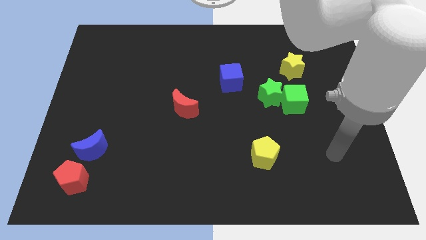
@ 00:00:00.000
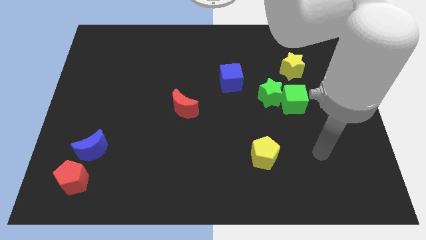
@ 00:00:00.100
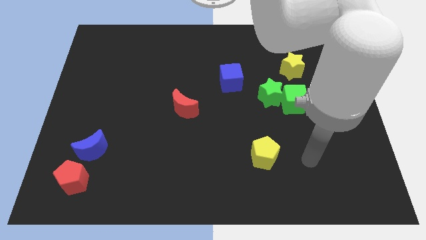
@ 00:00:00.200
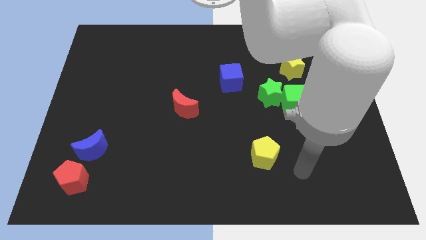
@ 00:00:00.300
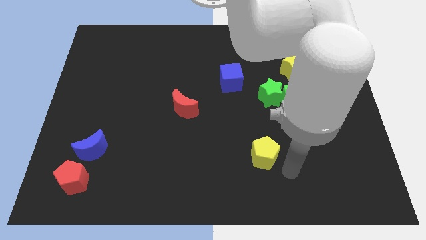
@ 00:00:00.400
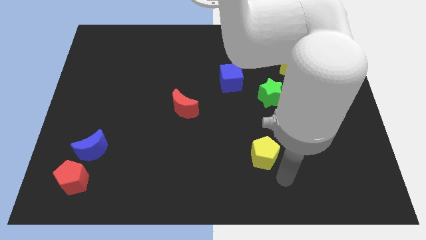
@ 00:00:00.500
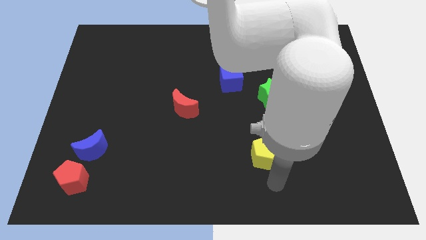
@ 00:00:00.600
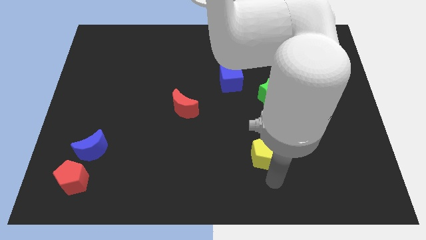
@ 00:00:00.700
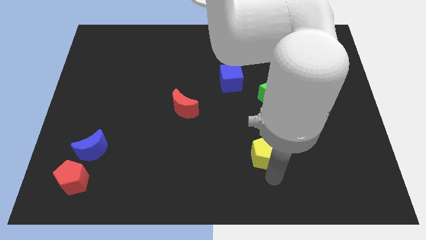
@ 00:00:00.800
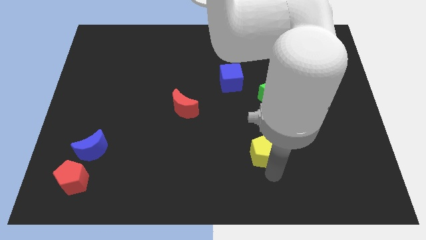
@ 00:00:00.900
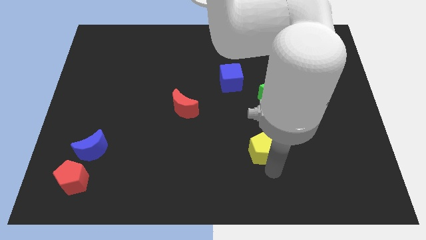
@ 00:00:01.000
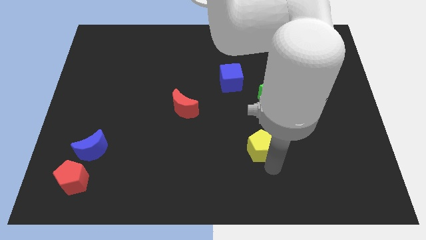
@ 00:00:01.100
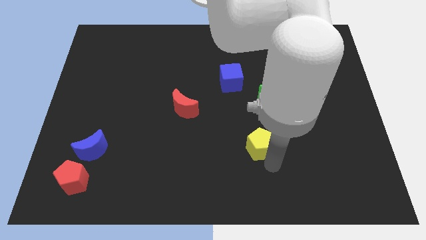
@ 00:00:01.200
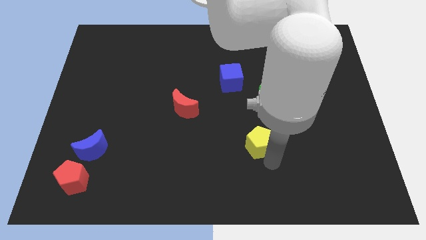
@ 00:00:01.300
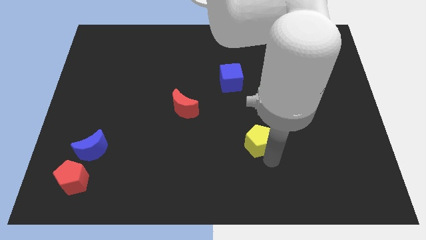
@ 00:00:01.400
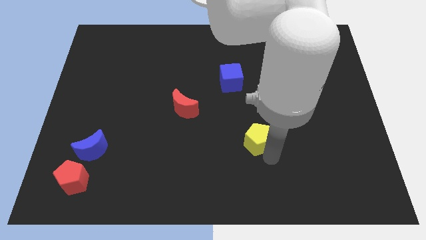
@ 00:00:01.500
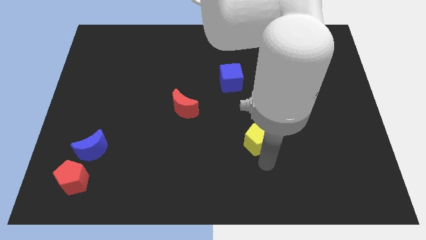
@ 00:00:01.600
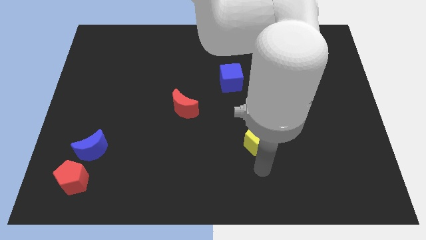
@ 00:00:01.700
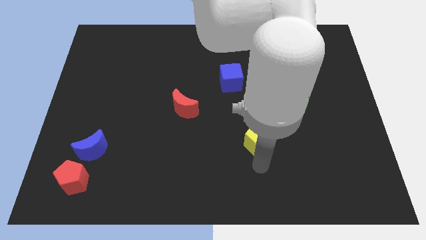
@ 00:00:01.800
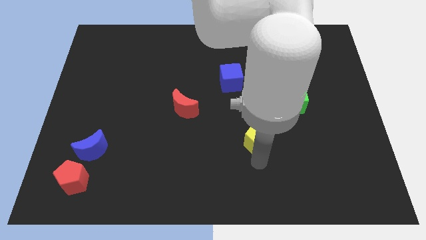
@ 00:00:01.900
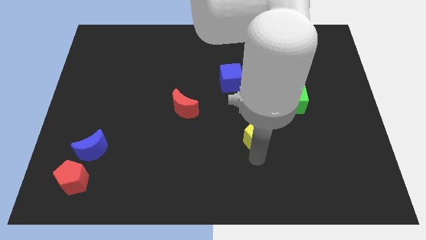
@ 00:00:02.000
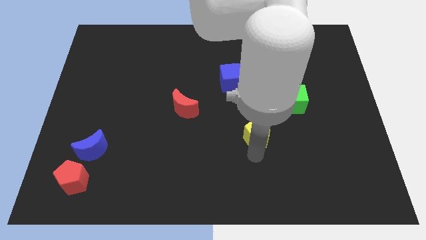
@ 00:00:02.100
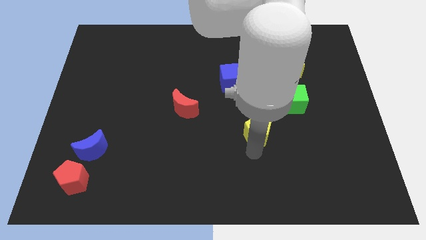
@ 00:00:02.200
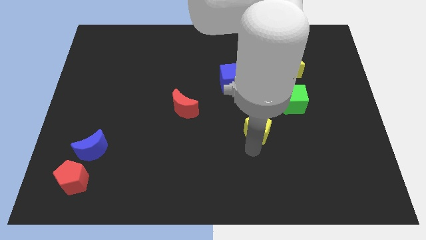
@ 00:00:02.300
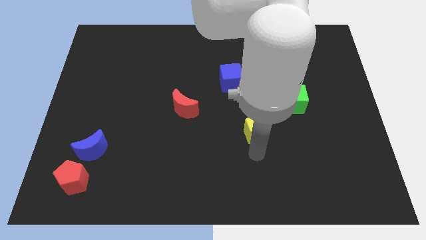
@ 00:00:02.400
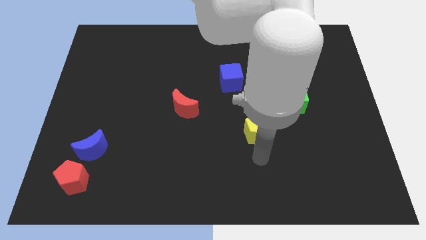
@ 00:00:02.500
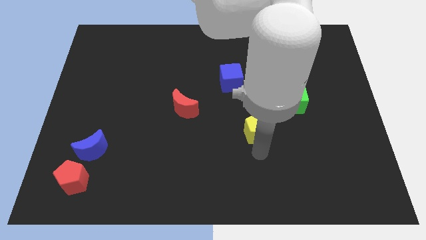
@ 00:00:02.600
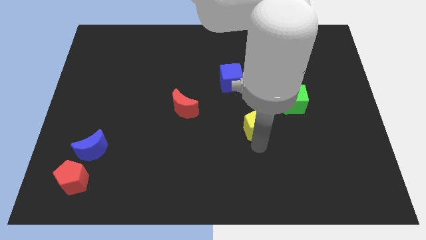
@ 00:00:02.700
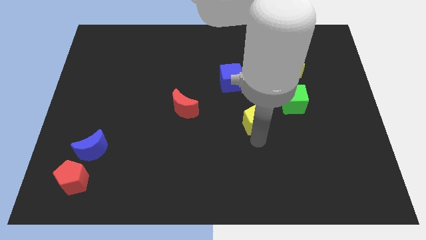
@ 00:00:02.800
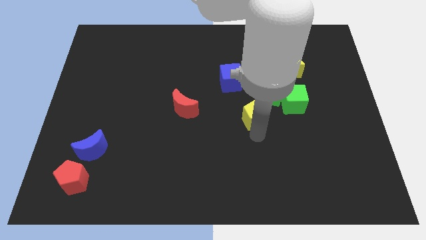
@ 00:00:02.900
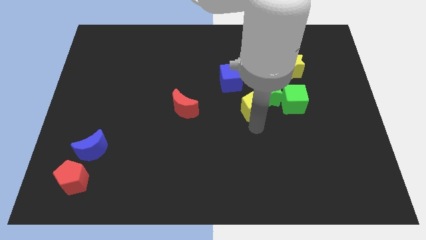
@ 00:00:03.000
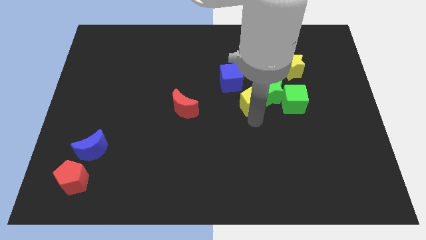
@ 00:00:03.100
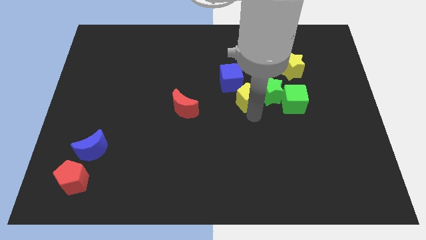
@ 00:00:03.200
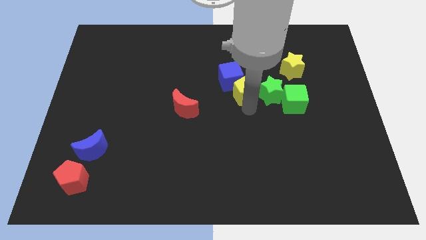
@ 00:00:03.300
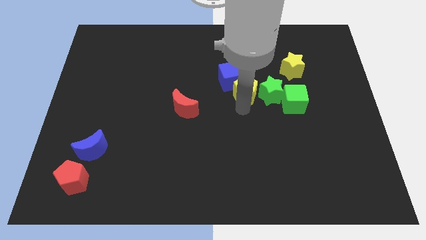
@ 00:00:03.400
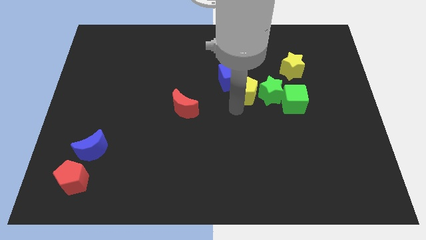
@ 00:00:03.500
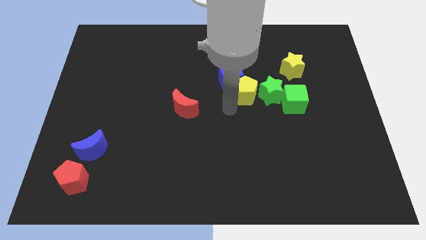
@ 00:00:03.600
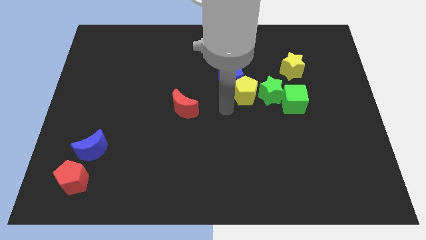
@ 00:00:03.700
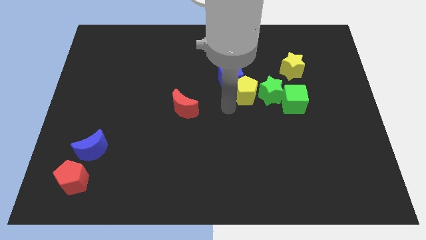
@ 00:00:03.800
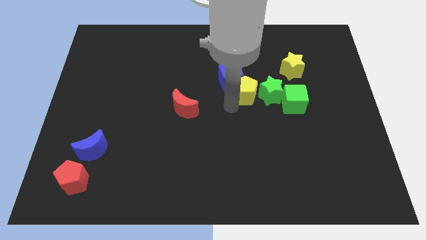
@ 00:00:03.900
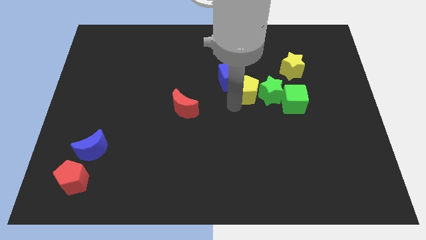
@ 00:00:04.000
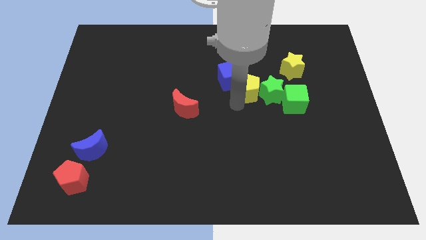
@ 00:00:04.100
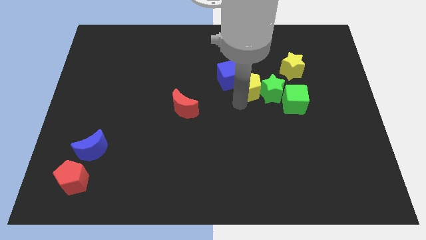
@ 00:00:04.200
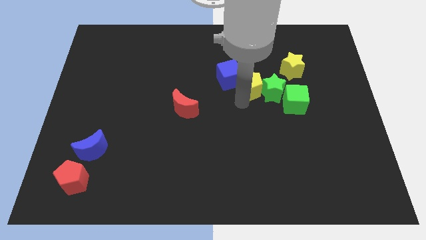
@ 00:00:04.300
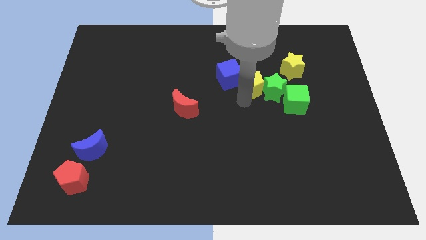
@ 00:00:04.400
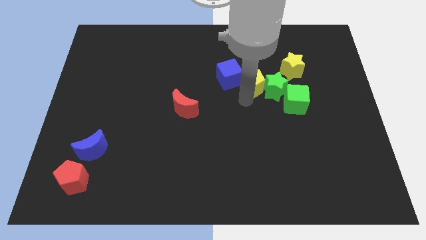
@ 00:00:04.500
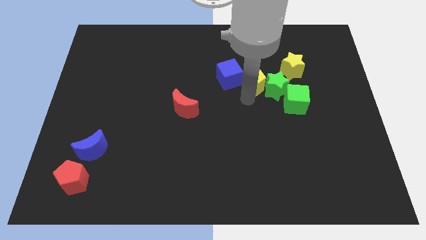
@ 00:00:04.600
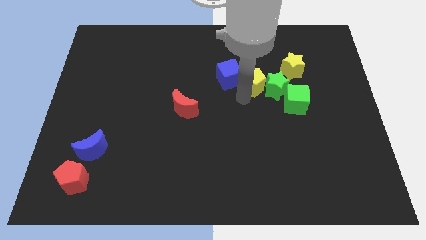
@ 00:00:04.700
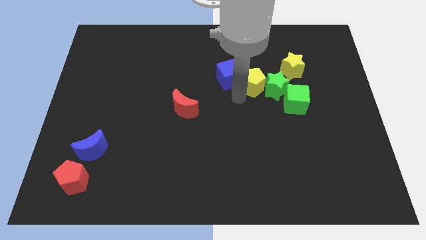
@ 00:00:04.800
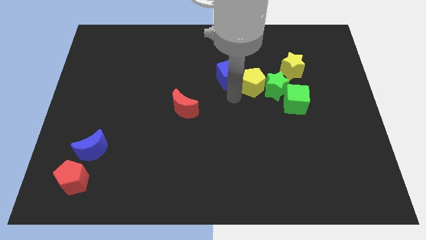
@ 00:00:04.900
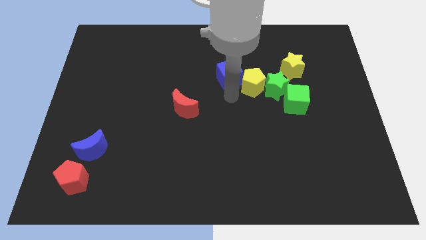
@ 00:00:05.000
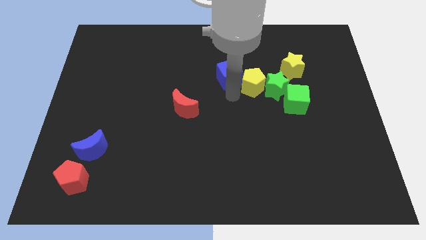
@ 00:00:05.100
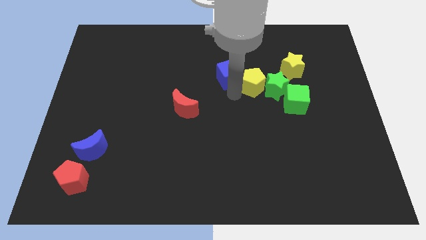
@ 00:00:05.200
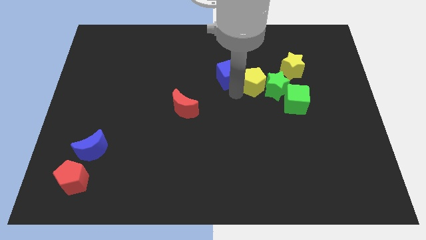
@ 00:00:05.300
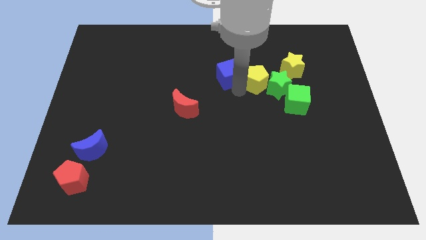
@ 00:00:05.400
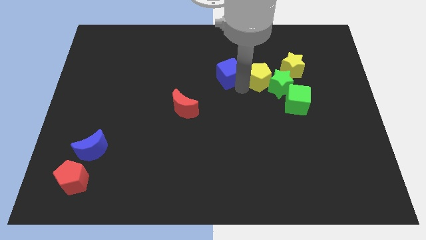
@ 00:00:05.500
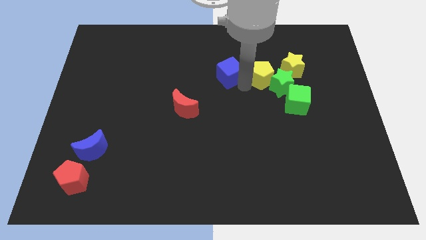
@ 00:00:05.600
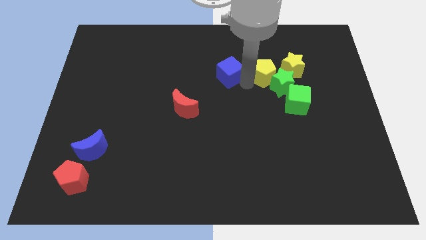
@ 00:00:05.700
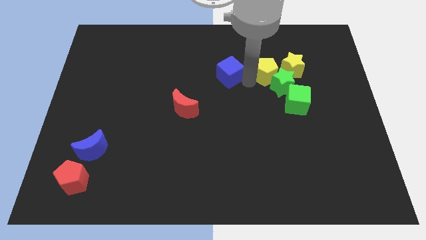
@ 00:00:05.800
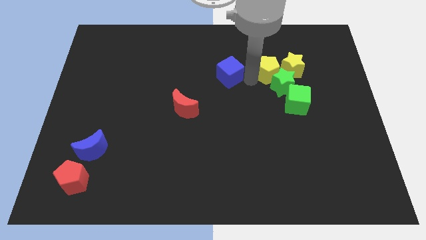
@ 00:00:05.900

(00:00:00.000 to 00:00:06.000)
move the yellow pentagon next to the yellow star
